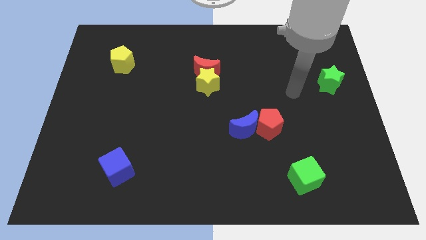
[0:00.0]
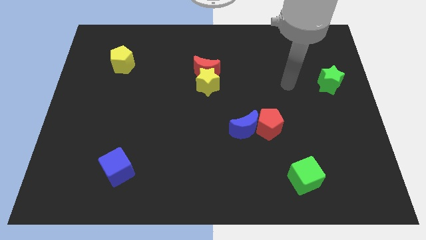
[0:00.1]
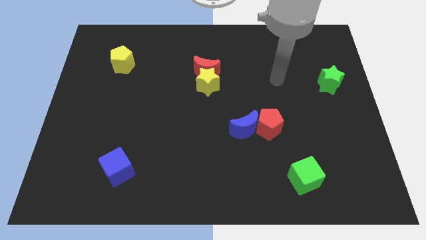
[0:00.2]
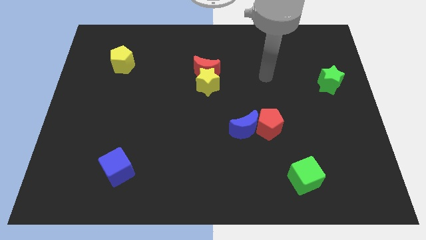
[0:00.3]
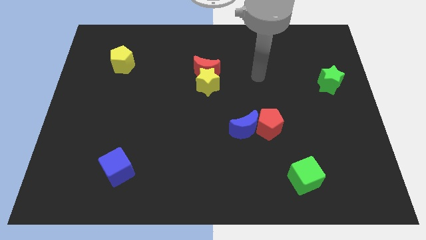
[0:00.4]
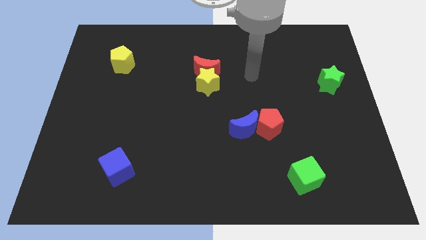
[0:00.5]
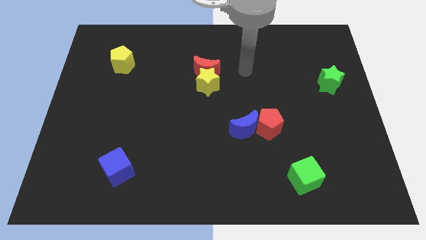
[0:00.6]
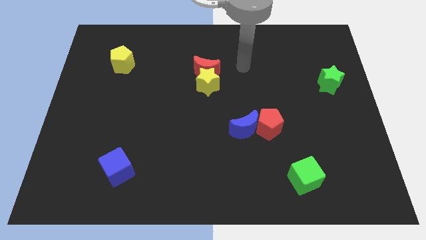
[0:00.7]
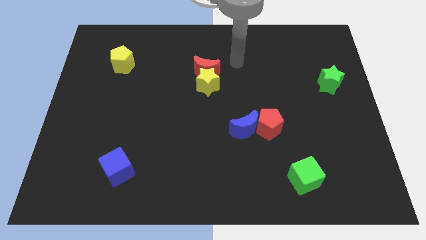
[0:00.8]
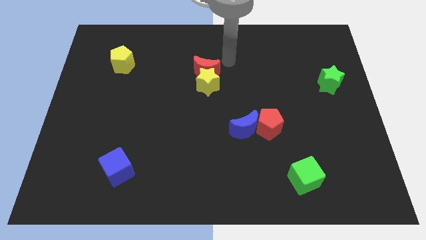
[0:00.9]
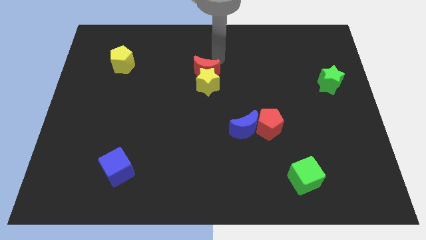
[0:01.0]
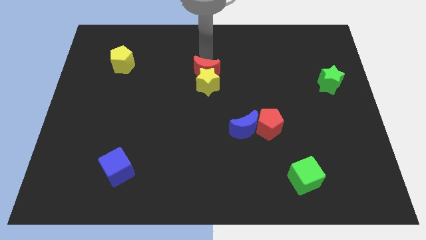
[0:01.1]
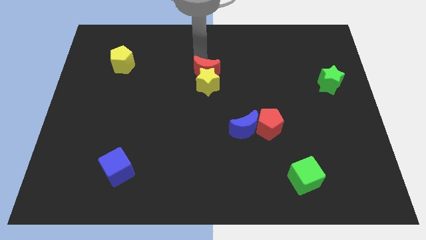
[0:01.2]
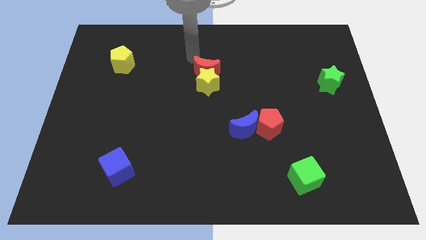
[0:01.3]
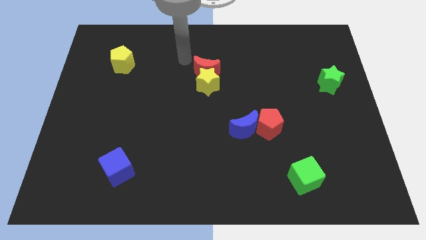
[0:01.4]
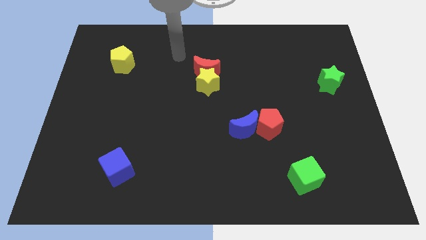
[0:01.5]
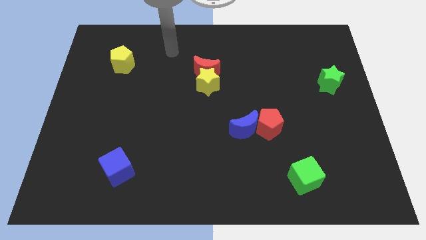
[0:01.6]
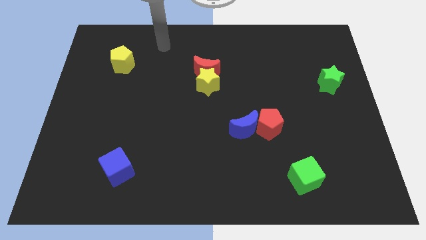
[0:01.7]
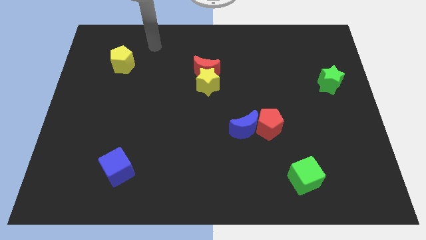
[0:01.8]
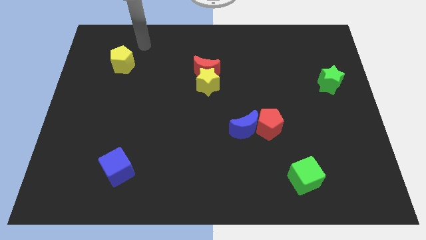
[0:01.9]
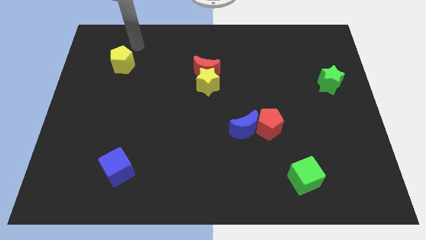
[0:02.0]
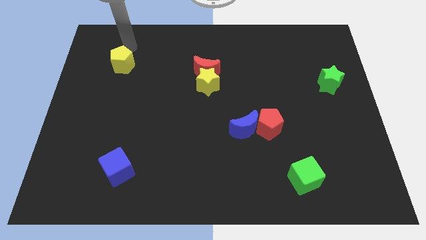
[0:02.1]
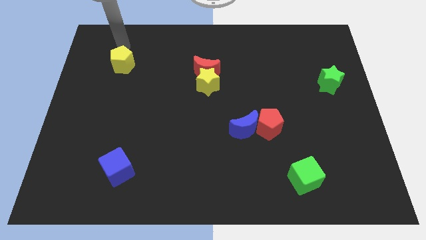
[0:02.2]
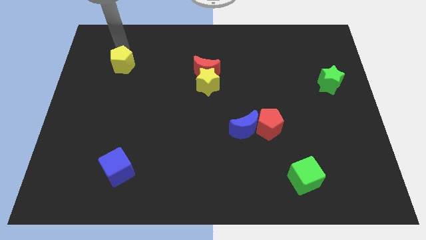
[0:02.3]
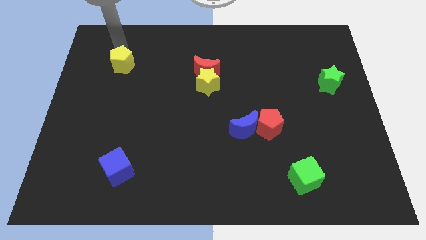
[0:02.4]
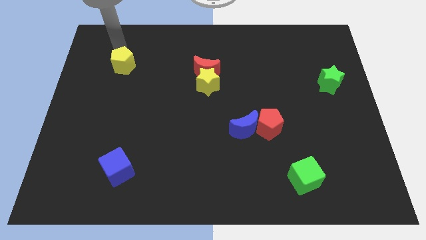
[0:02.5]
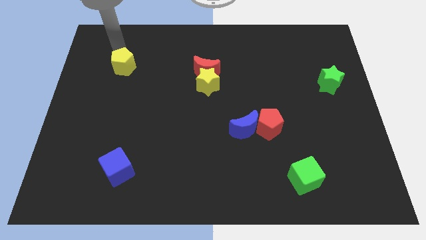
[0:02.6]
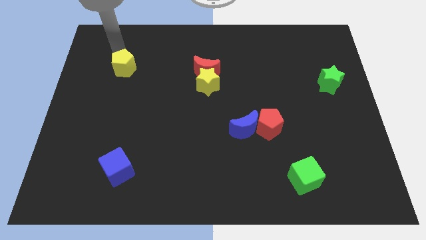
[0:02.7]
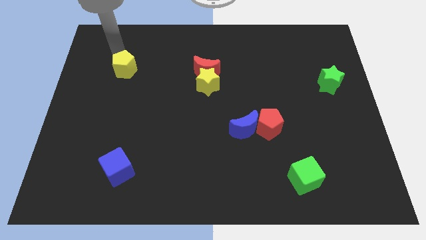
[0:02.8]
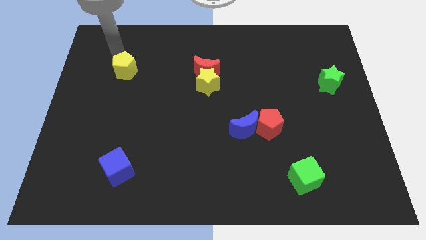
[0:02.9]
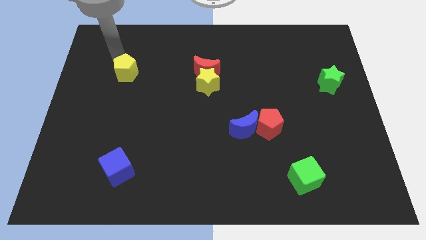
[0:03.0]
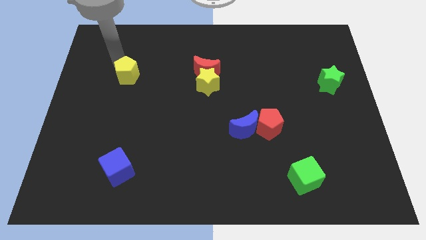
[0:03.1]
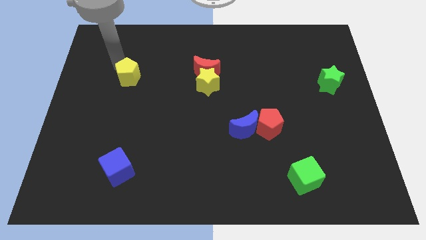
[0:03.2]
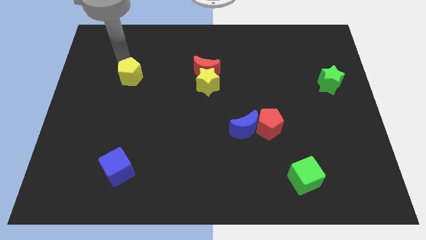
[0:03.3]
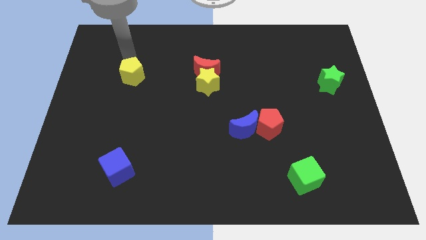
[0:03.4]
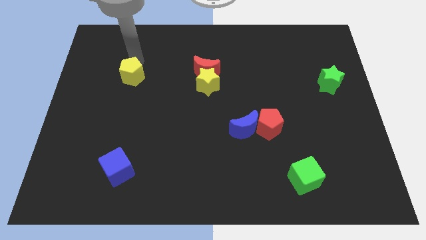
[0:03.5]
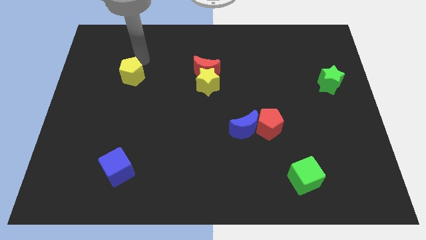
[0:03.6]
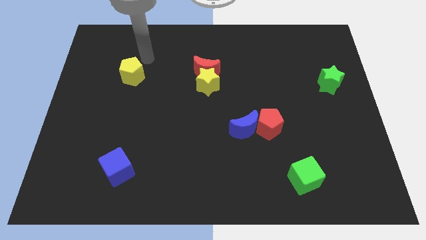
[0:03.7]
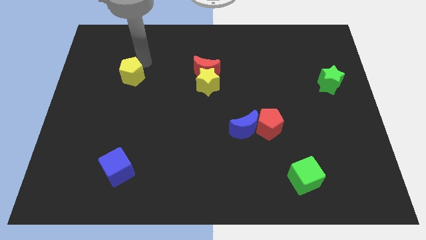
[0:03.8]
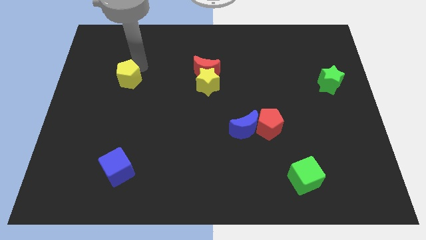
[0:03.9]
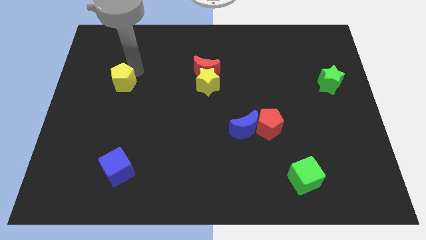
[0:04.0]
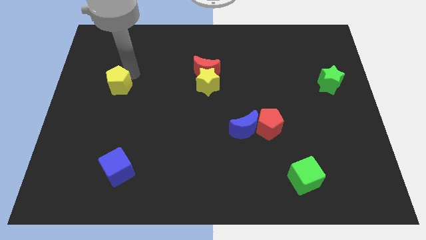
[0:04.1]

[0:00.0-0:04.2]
push the yellow pentagon down somewhat

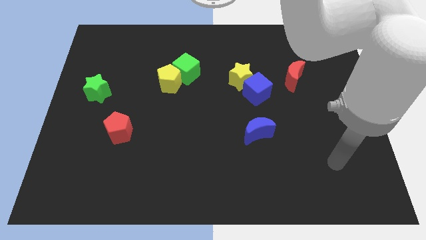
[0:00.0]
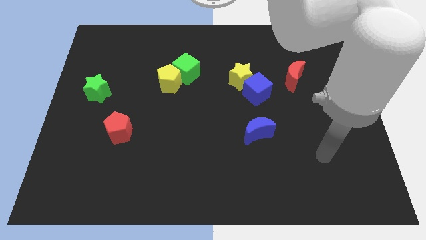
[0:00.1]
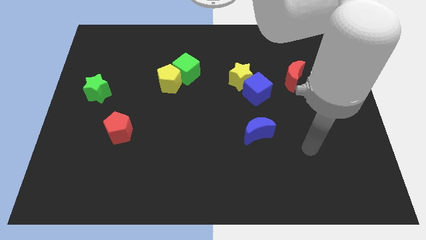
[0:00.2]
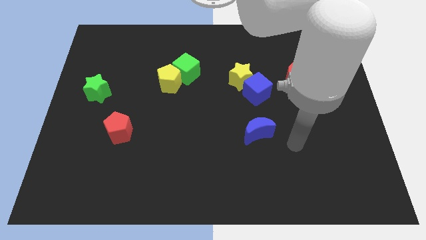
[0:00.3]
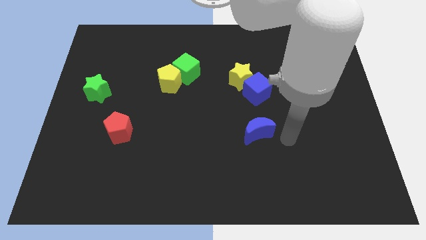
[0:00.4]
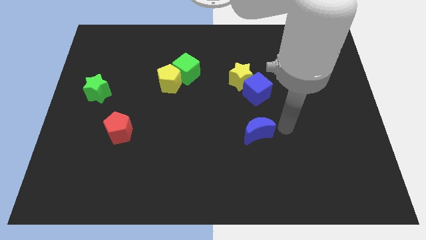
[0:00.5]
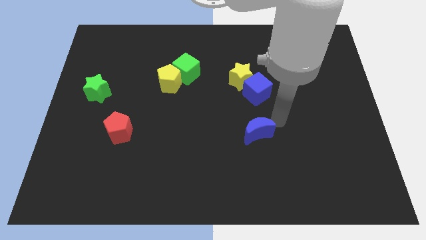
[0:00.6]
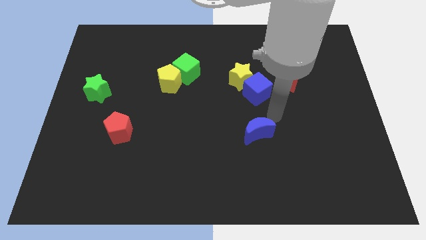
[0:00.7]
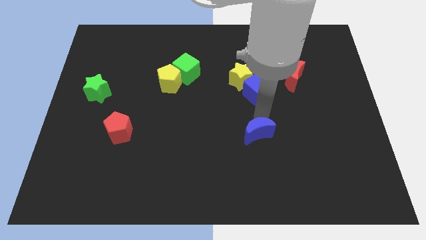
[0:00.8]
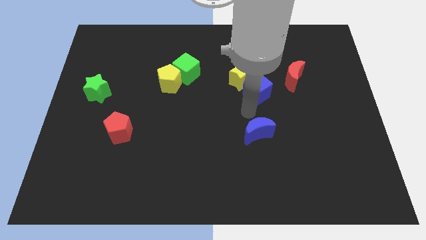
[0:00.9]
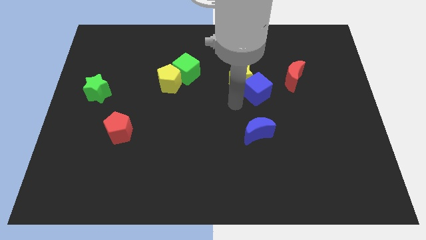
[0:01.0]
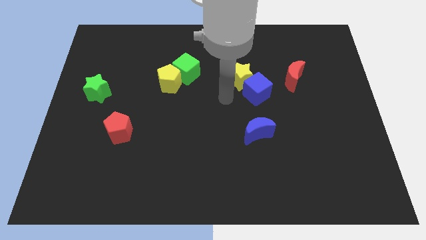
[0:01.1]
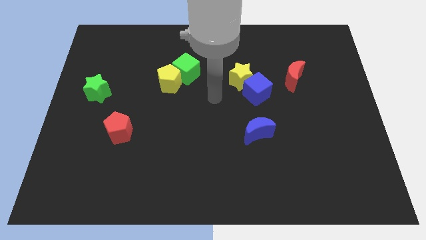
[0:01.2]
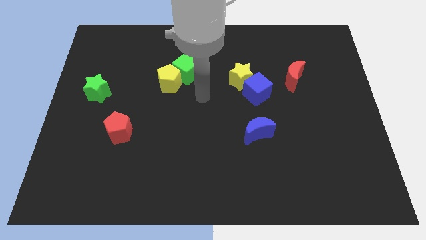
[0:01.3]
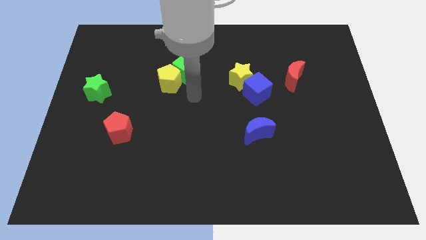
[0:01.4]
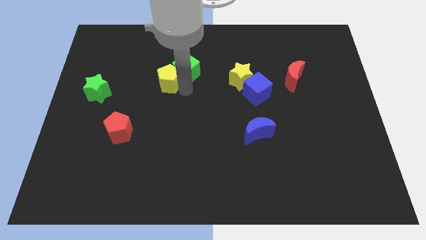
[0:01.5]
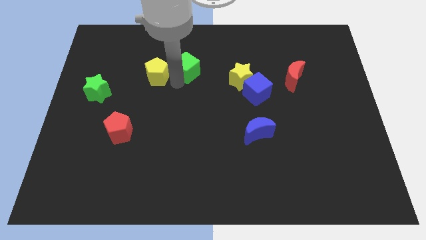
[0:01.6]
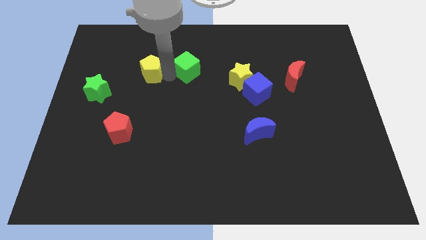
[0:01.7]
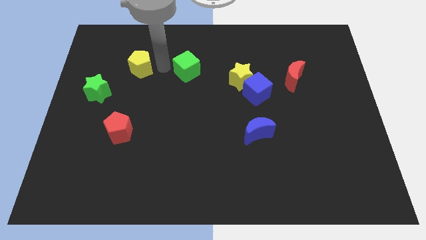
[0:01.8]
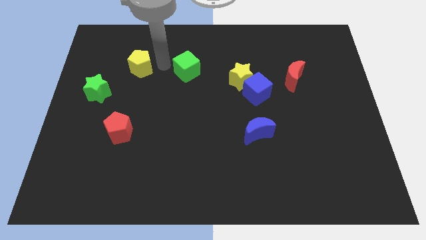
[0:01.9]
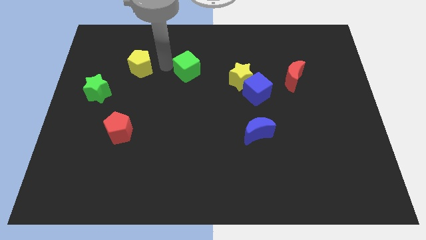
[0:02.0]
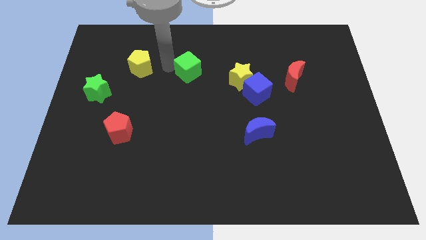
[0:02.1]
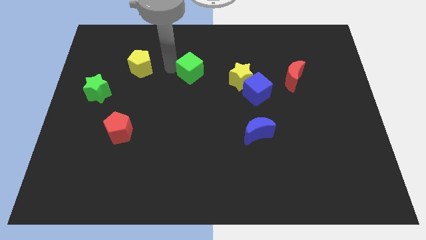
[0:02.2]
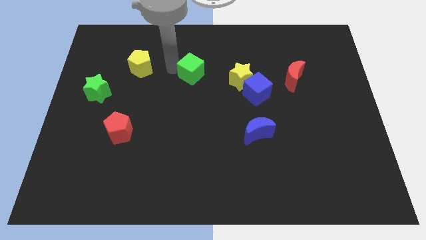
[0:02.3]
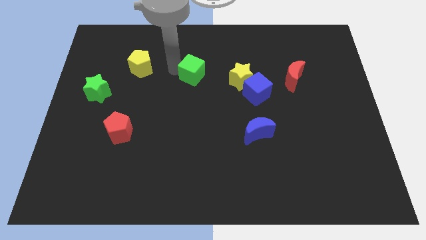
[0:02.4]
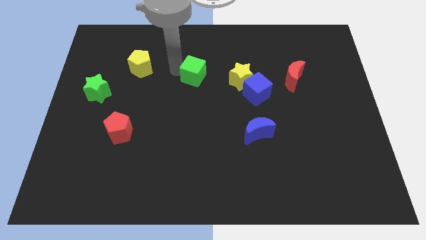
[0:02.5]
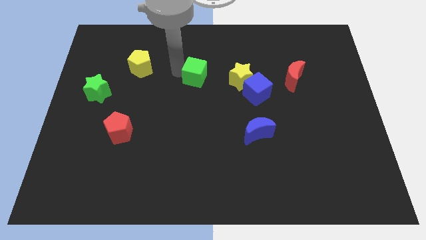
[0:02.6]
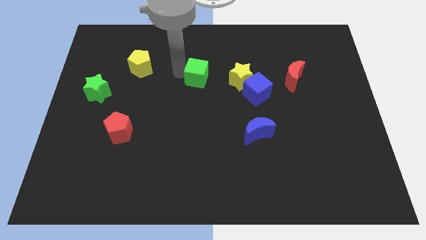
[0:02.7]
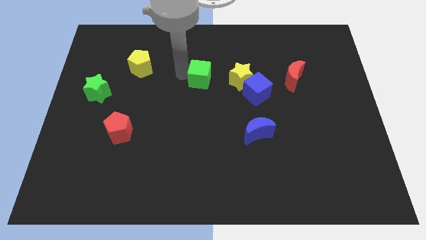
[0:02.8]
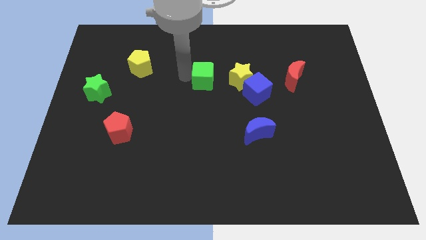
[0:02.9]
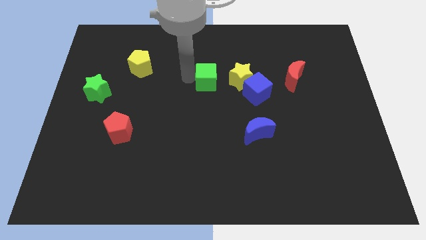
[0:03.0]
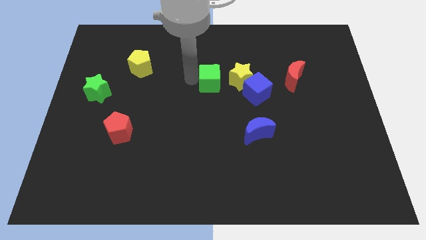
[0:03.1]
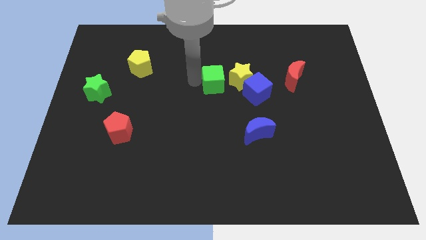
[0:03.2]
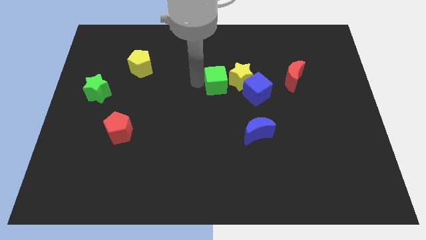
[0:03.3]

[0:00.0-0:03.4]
push the green cube right a bit
